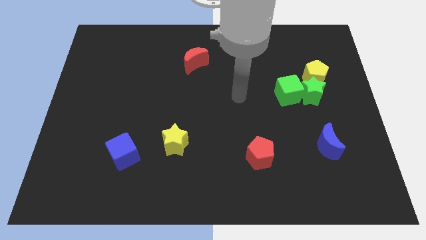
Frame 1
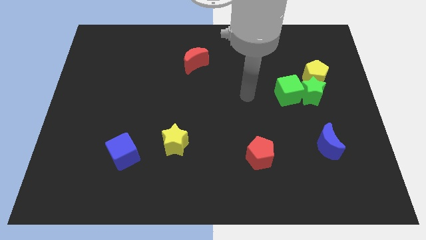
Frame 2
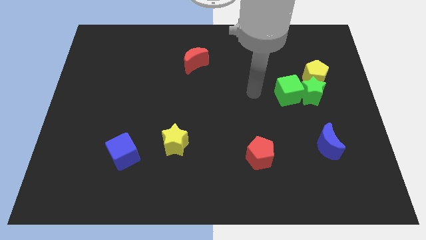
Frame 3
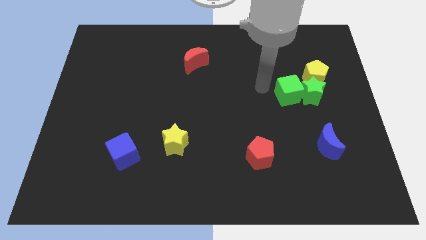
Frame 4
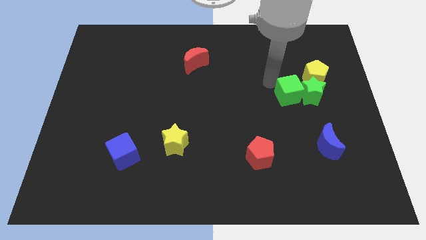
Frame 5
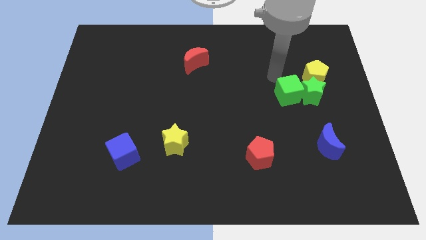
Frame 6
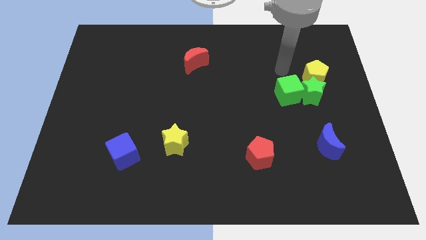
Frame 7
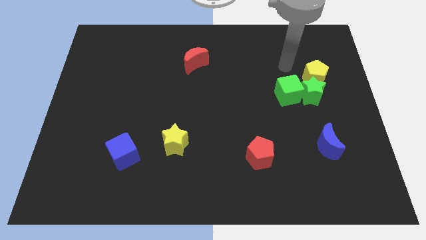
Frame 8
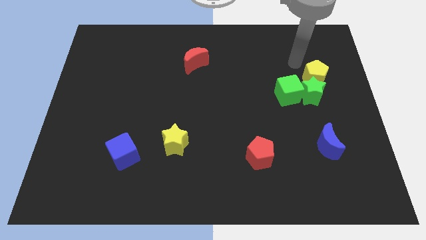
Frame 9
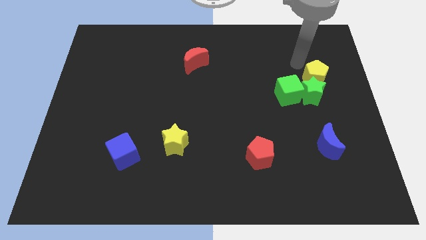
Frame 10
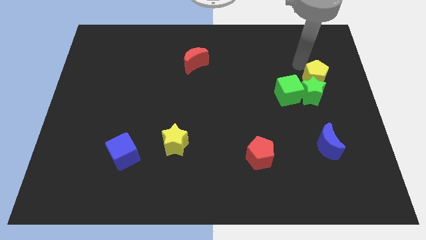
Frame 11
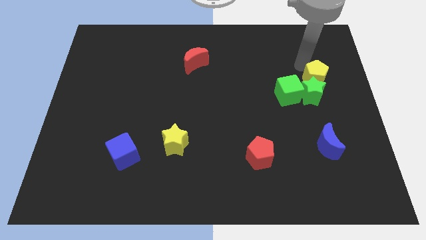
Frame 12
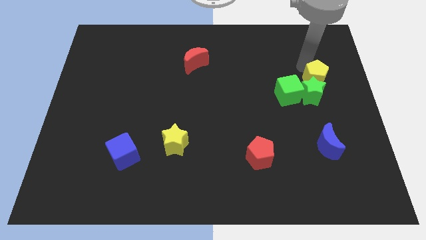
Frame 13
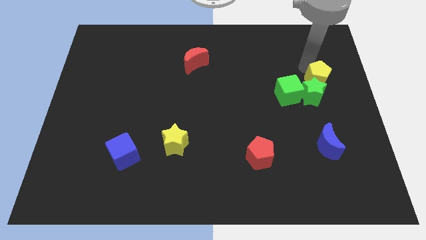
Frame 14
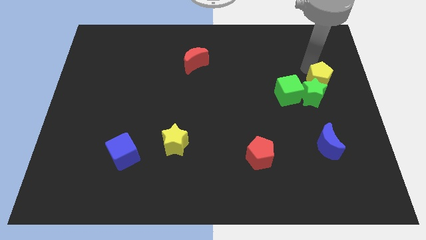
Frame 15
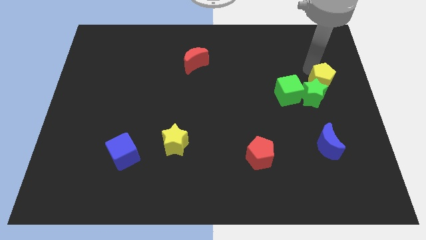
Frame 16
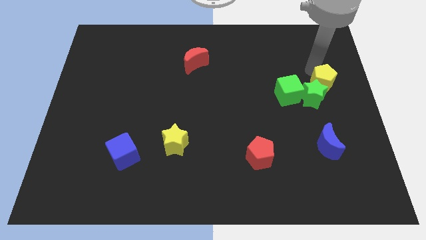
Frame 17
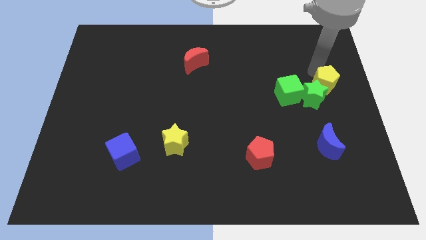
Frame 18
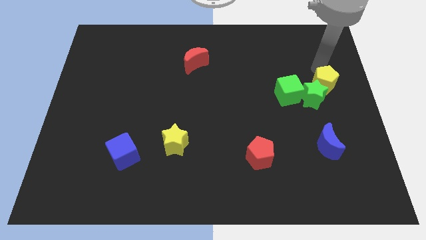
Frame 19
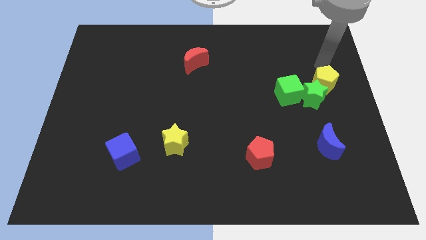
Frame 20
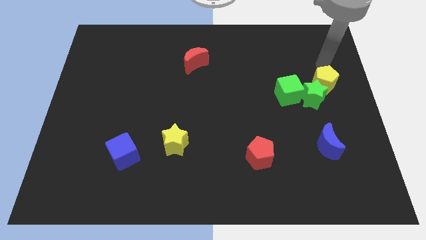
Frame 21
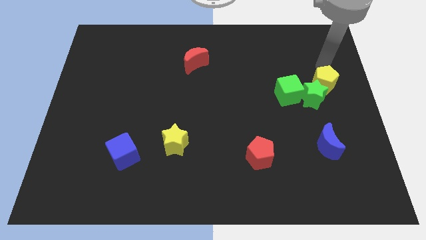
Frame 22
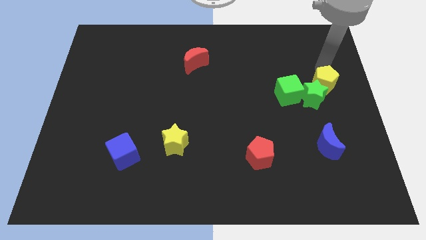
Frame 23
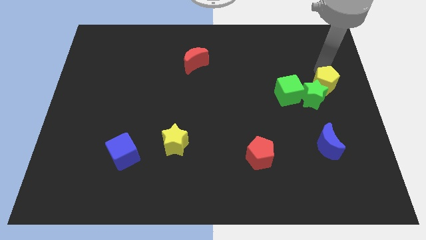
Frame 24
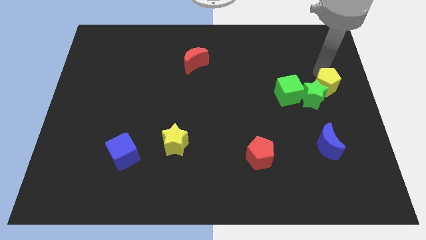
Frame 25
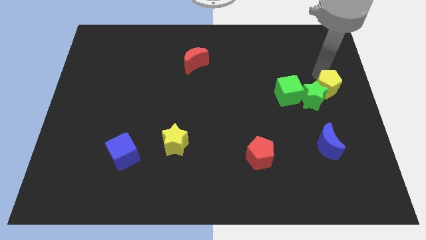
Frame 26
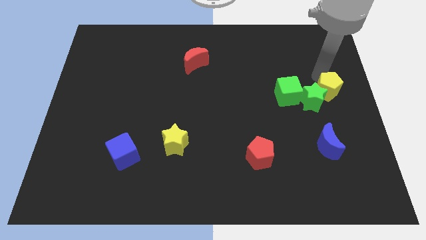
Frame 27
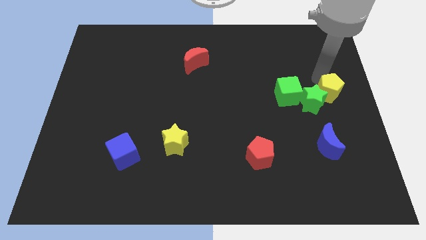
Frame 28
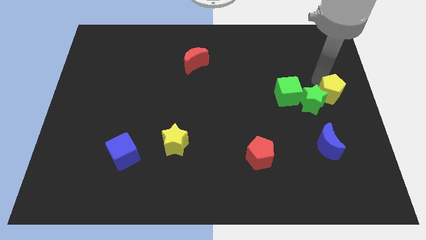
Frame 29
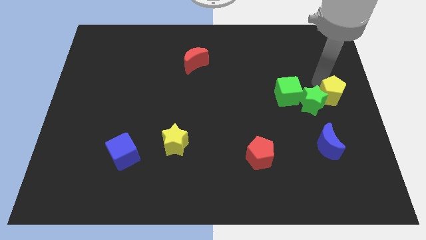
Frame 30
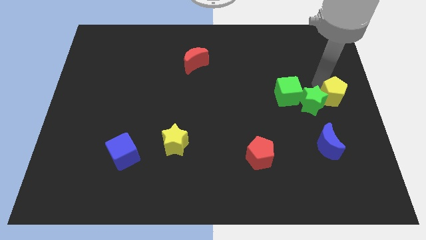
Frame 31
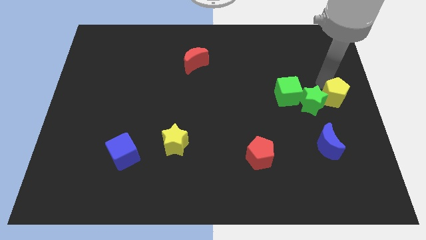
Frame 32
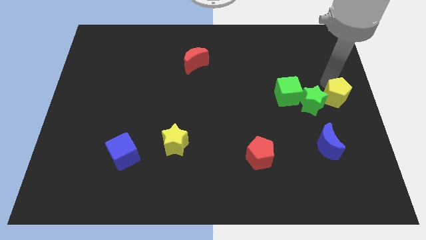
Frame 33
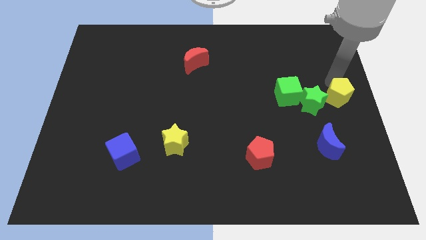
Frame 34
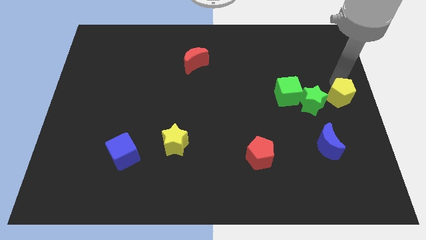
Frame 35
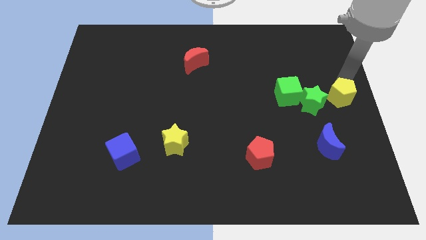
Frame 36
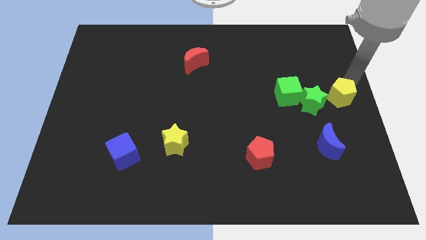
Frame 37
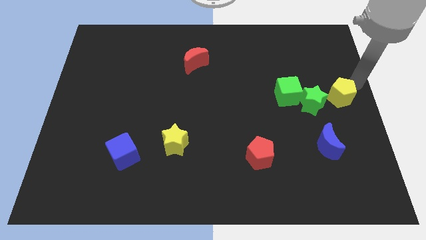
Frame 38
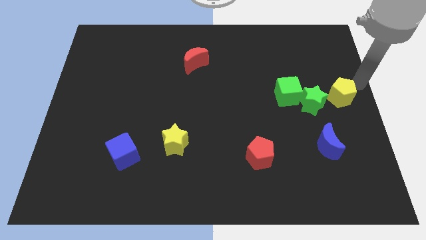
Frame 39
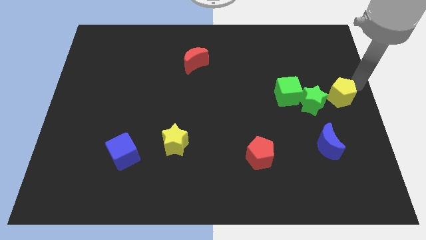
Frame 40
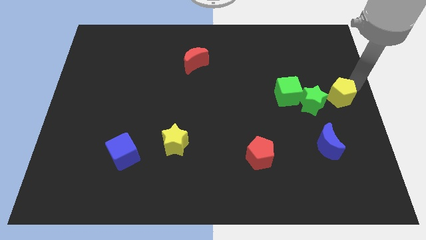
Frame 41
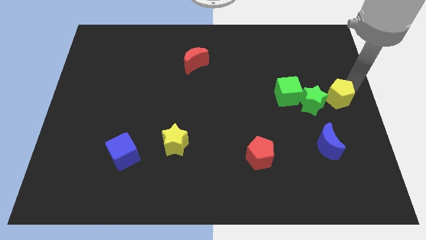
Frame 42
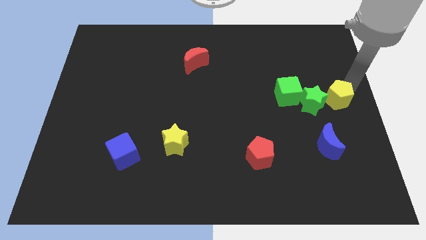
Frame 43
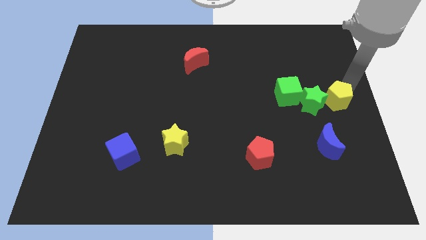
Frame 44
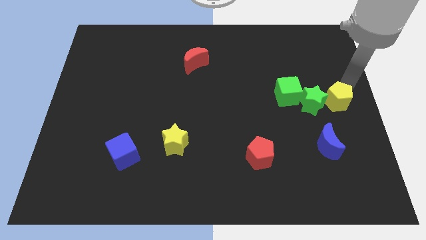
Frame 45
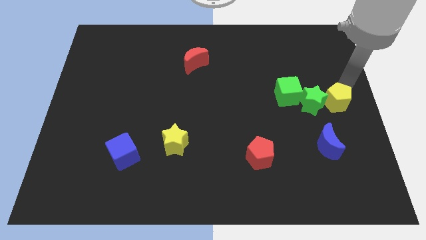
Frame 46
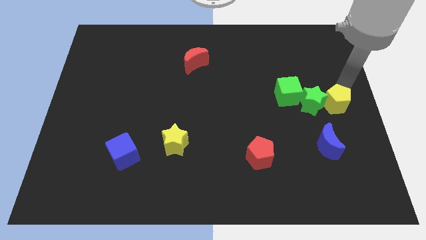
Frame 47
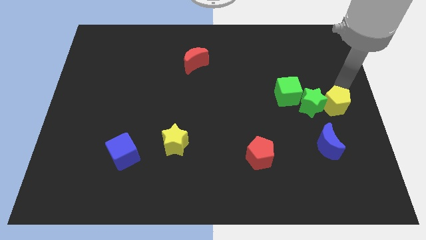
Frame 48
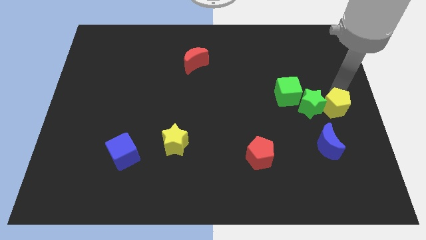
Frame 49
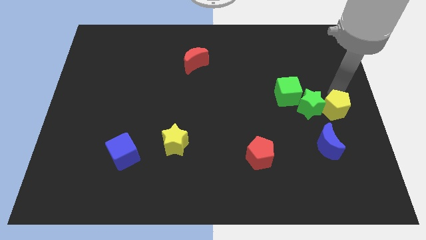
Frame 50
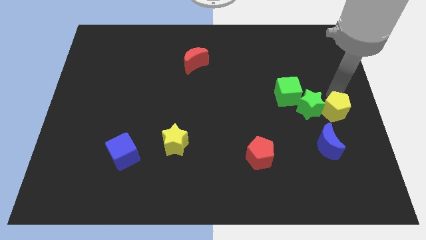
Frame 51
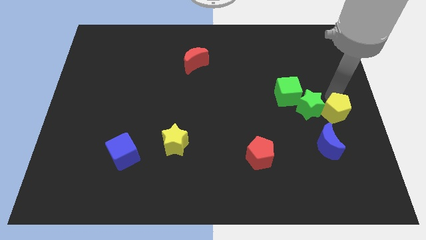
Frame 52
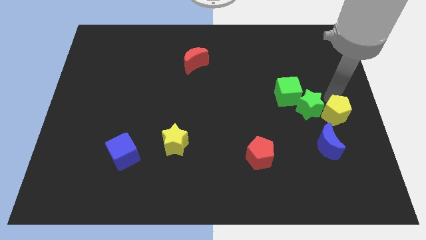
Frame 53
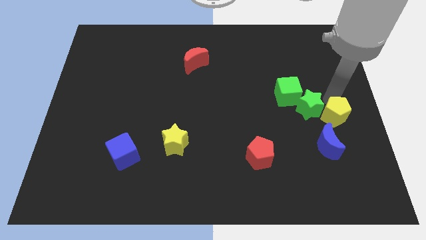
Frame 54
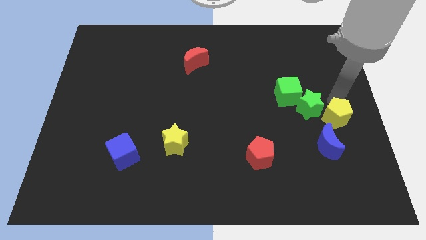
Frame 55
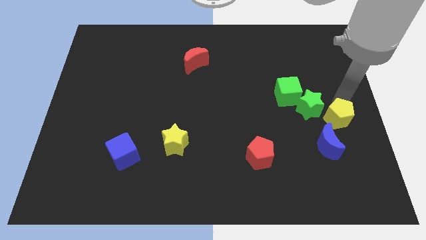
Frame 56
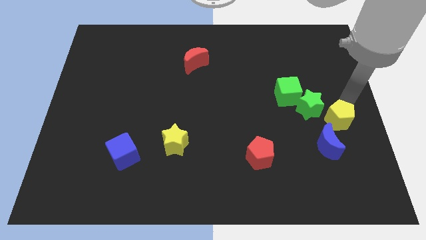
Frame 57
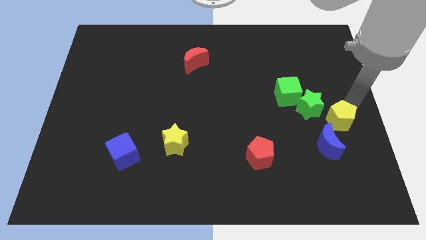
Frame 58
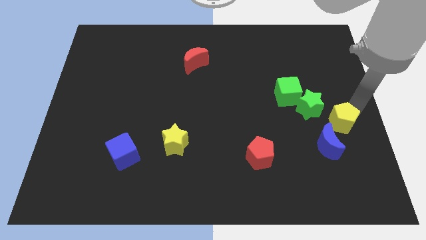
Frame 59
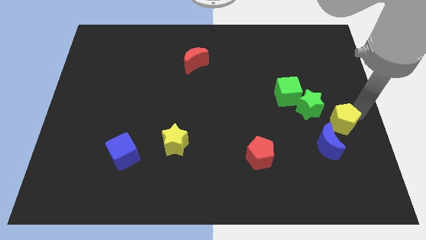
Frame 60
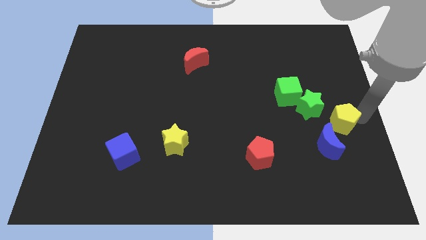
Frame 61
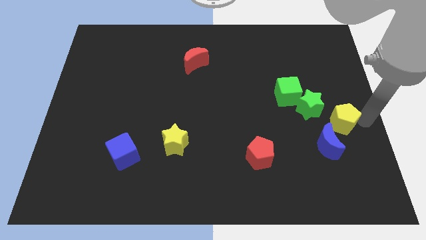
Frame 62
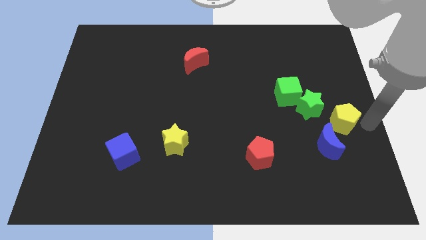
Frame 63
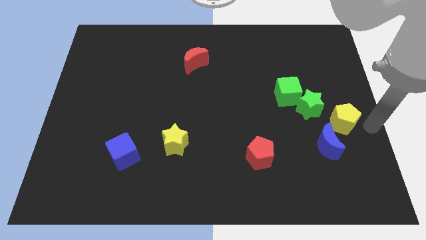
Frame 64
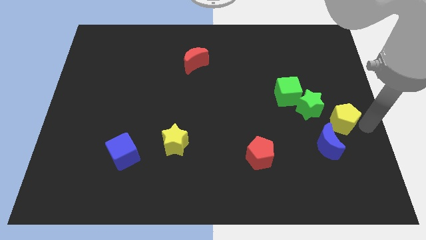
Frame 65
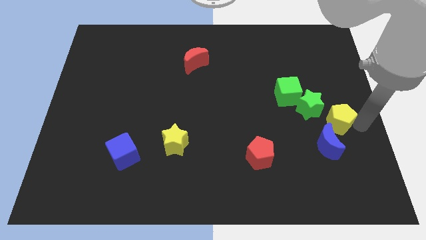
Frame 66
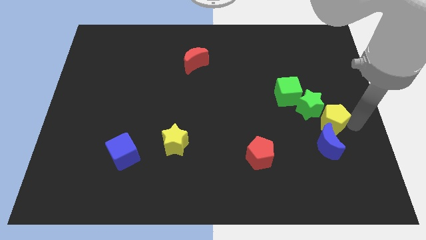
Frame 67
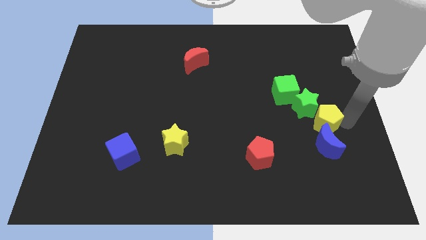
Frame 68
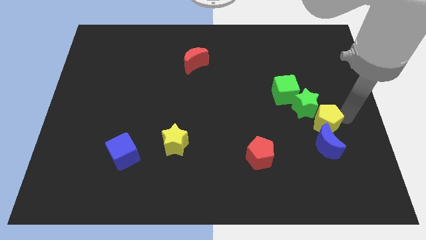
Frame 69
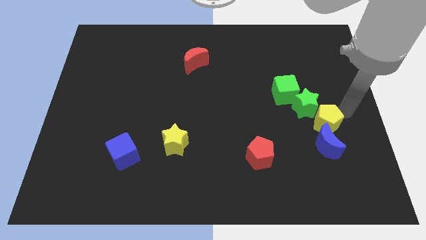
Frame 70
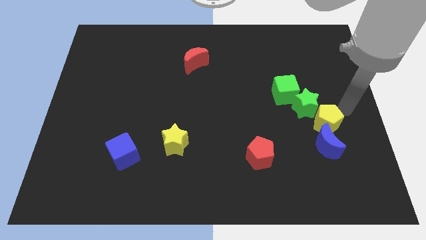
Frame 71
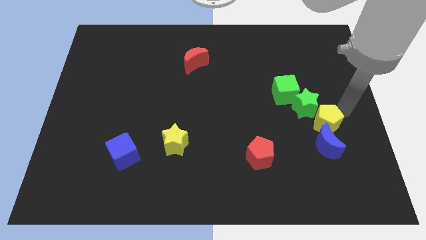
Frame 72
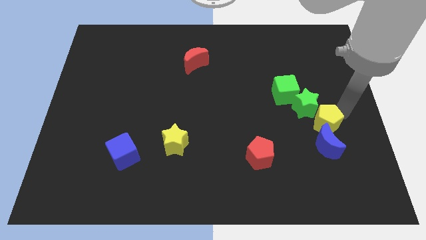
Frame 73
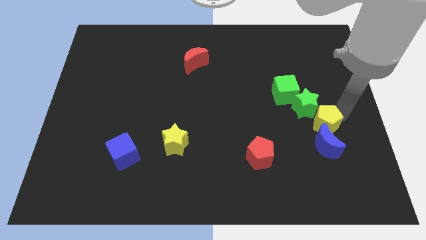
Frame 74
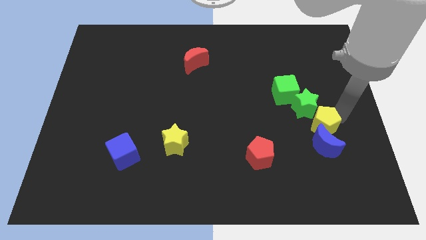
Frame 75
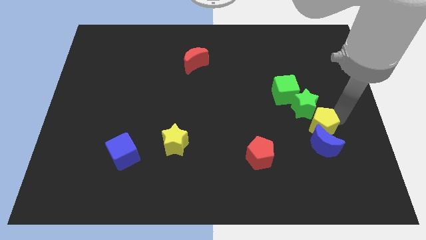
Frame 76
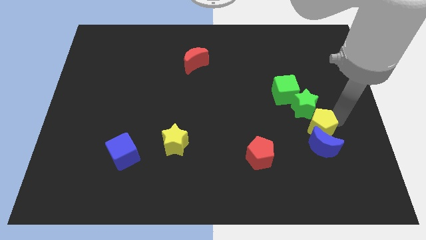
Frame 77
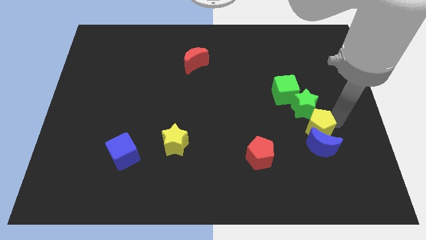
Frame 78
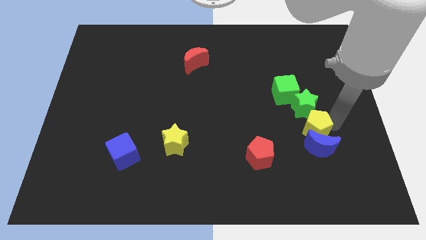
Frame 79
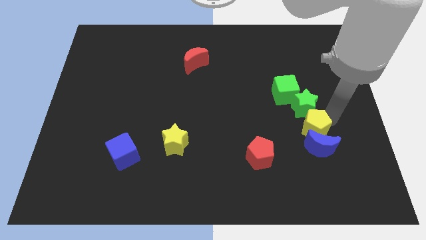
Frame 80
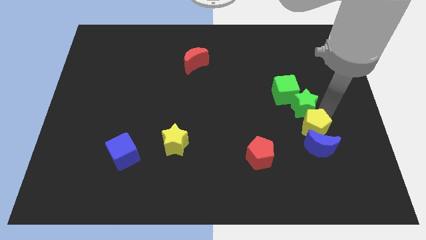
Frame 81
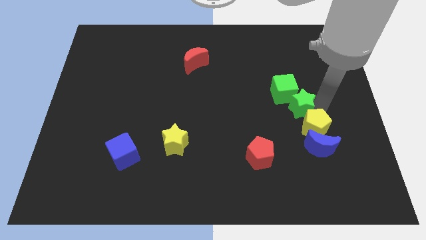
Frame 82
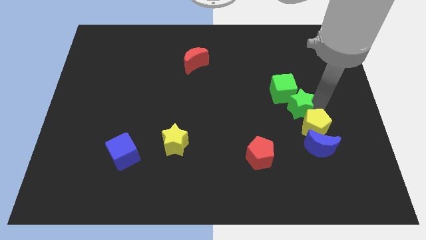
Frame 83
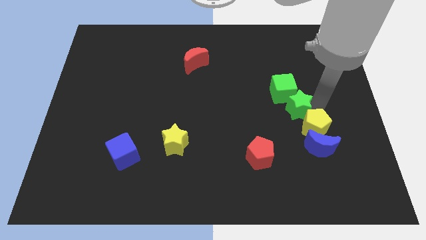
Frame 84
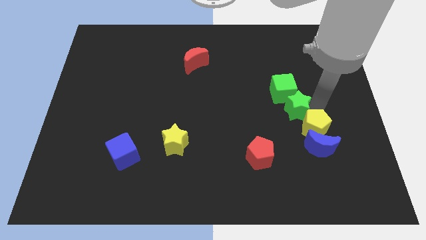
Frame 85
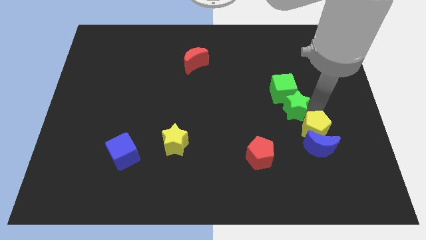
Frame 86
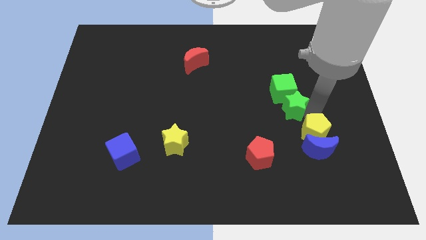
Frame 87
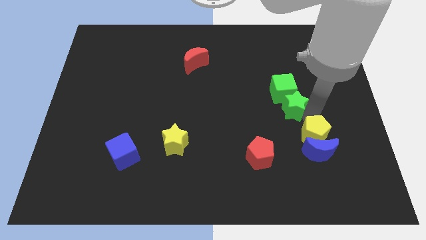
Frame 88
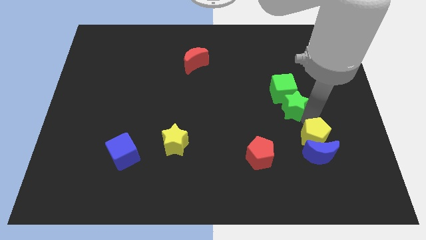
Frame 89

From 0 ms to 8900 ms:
move the yellow pentagon right of the red pentagon
